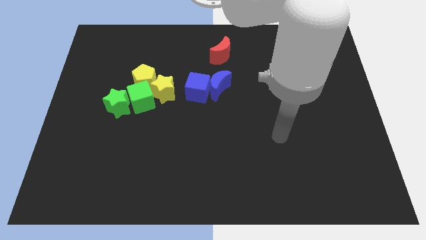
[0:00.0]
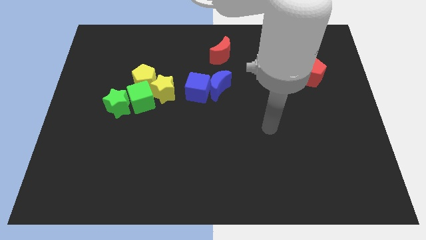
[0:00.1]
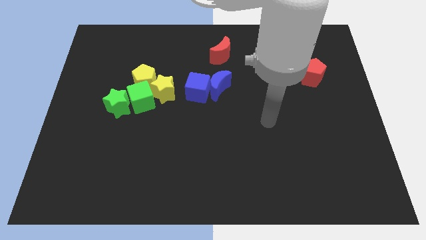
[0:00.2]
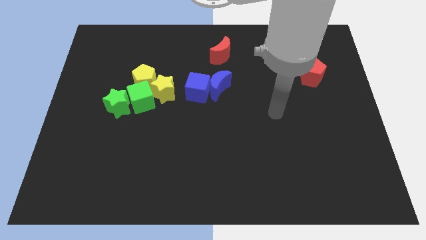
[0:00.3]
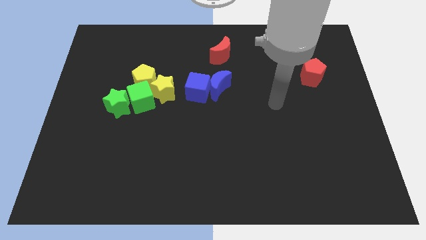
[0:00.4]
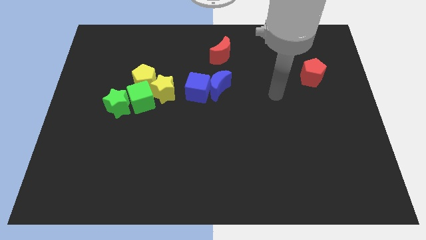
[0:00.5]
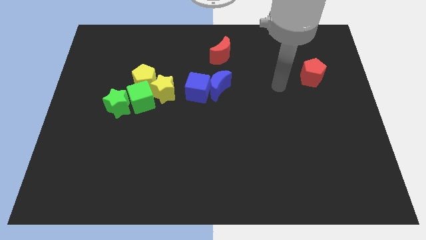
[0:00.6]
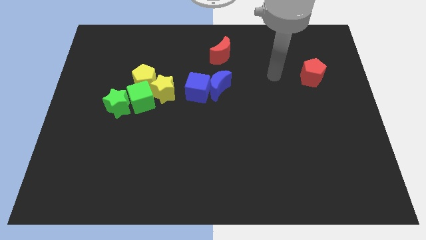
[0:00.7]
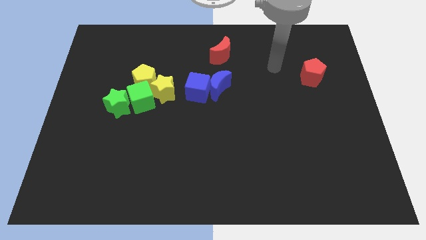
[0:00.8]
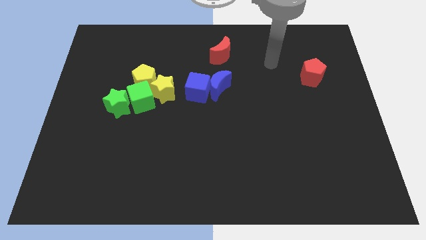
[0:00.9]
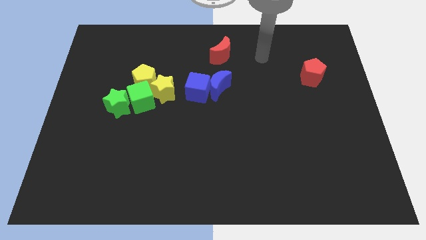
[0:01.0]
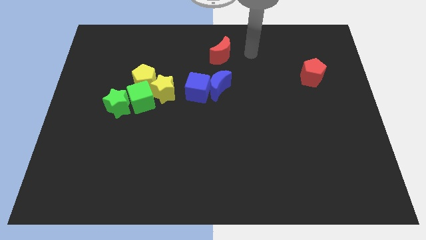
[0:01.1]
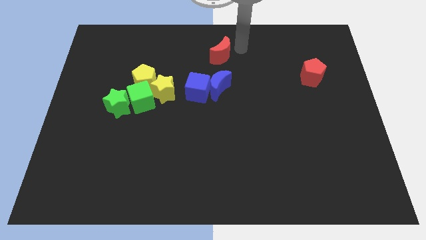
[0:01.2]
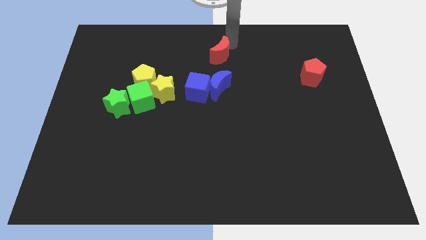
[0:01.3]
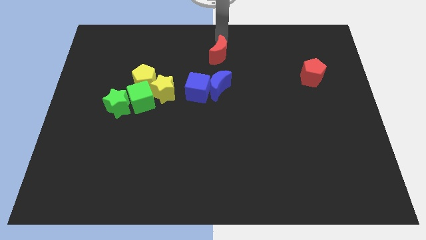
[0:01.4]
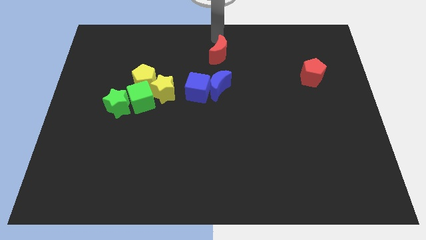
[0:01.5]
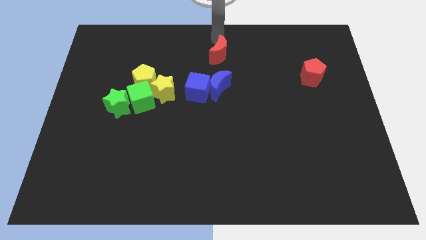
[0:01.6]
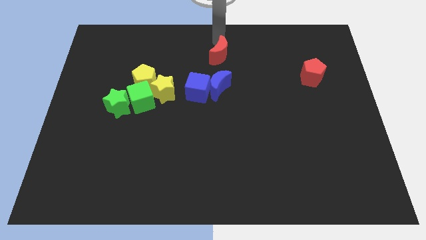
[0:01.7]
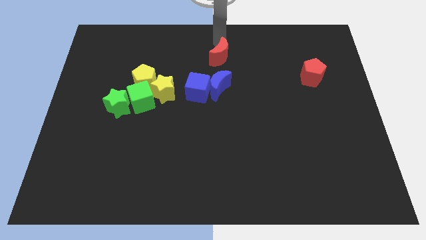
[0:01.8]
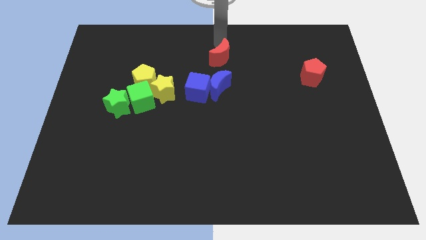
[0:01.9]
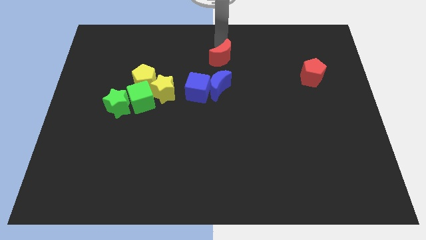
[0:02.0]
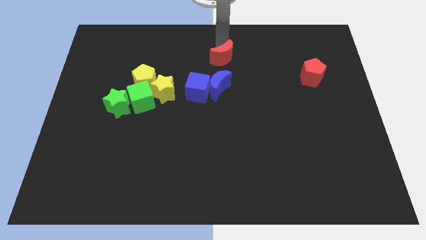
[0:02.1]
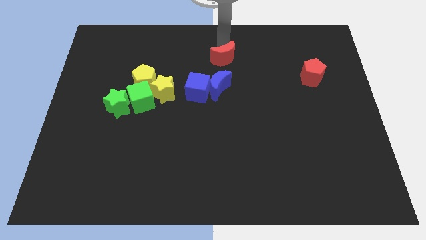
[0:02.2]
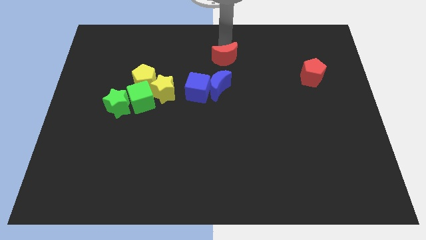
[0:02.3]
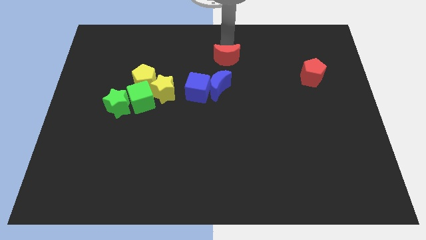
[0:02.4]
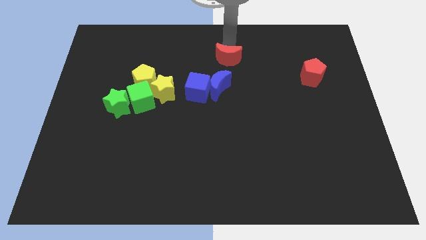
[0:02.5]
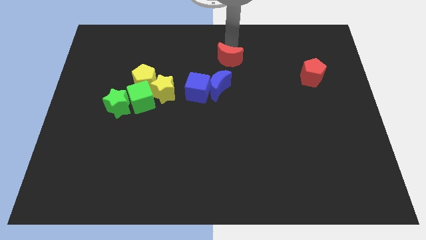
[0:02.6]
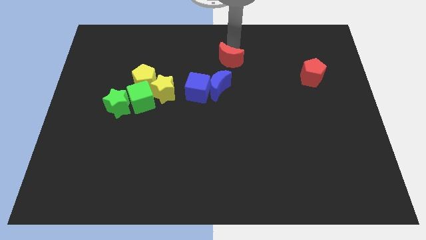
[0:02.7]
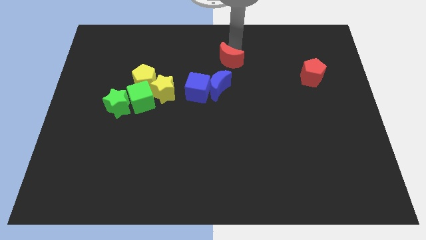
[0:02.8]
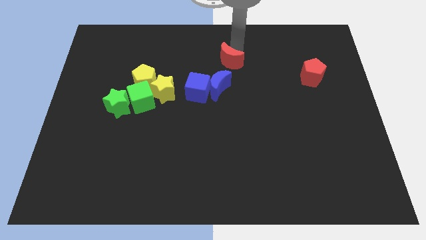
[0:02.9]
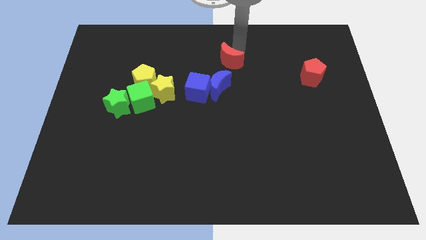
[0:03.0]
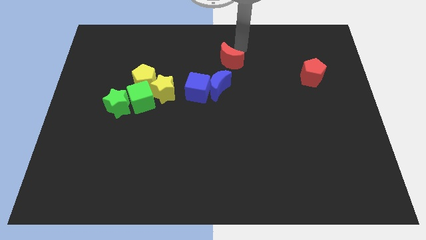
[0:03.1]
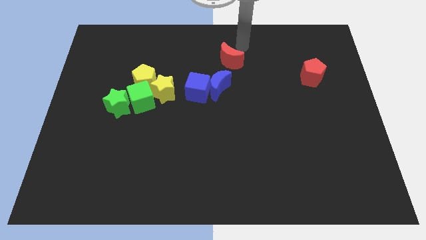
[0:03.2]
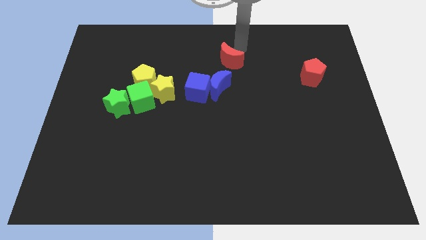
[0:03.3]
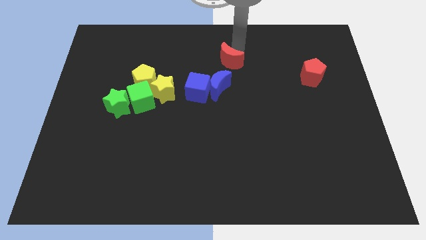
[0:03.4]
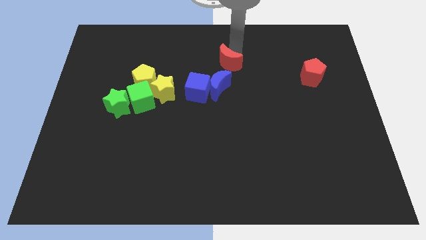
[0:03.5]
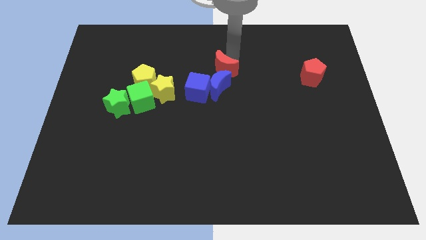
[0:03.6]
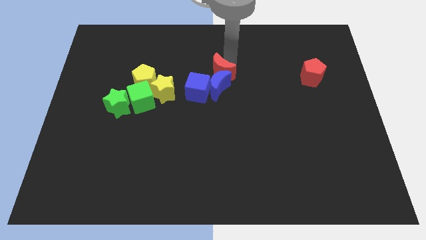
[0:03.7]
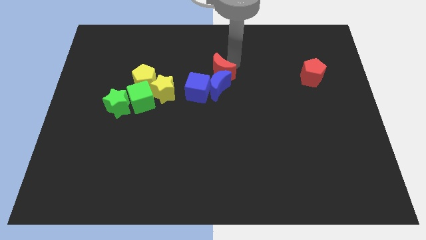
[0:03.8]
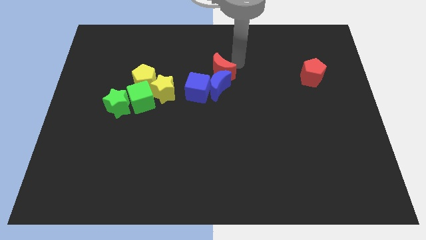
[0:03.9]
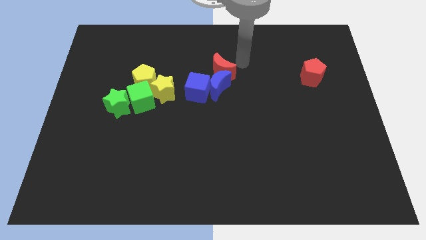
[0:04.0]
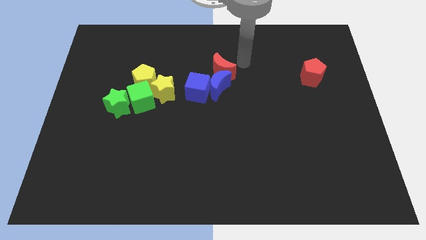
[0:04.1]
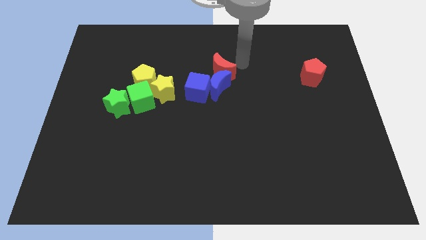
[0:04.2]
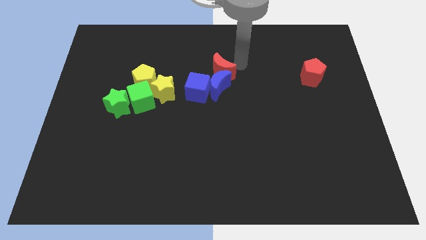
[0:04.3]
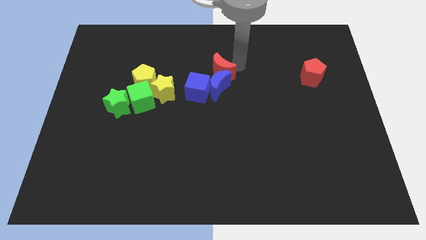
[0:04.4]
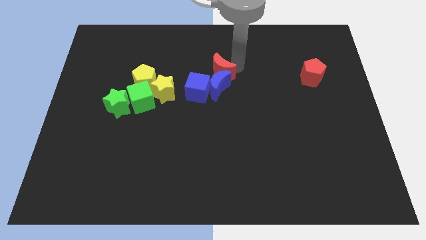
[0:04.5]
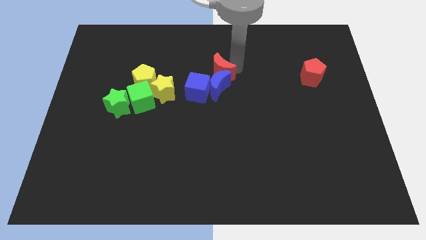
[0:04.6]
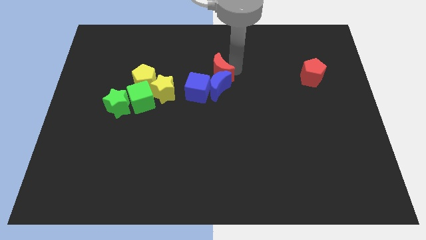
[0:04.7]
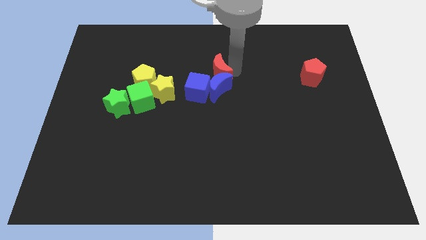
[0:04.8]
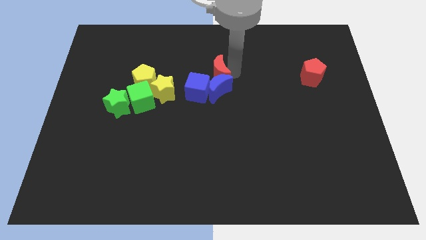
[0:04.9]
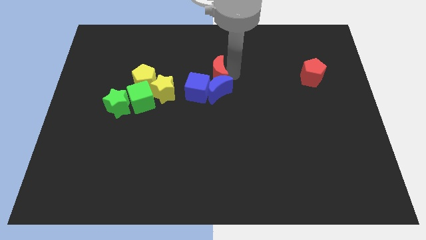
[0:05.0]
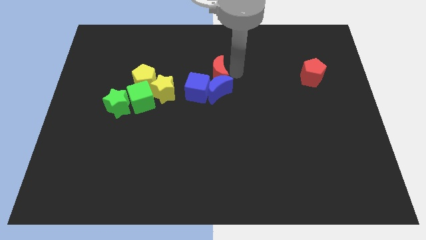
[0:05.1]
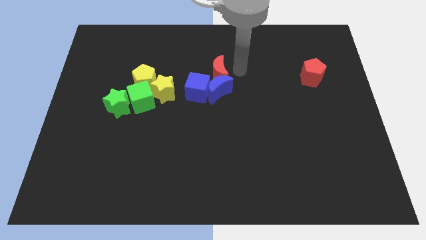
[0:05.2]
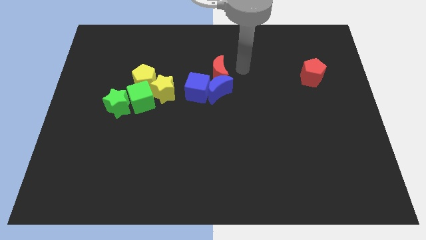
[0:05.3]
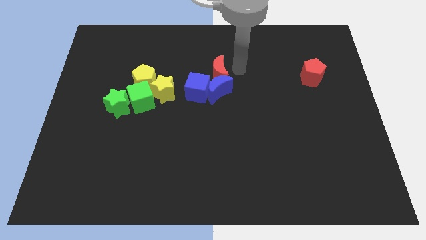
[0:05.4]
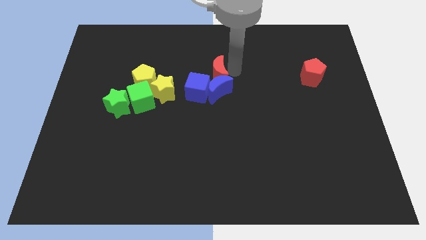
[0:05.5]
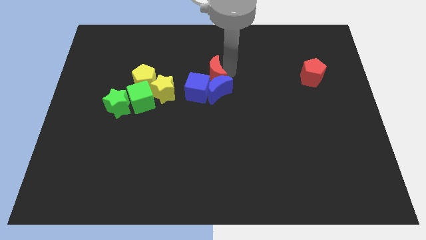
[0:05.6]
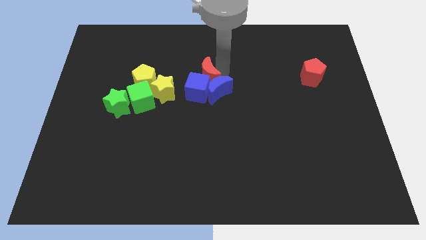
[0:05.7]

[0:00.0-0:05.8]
move the red moon next to the blue cube

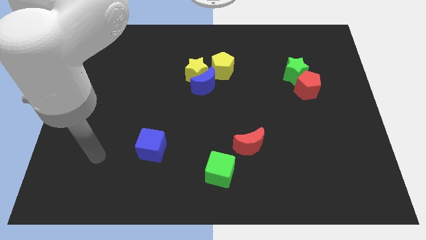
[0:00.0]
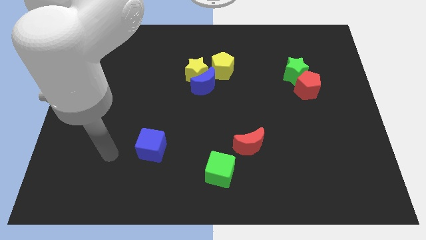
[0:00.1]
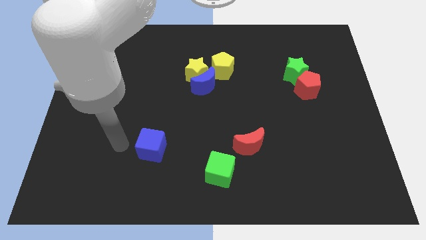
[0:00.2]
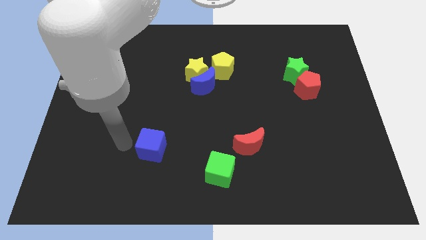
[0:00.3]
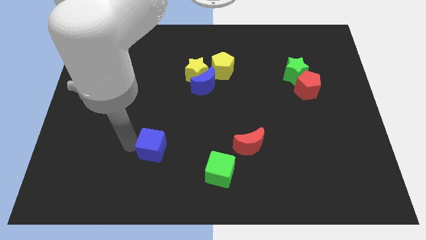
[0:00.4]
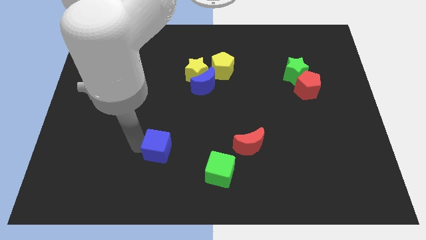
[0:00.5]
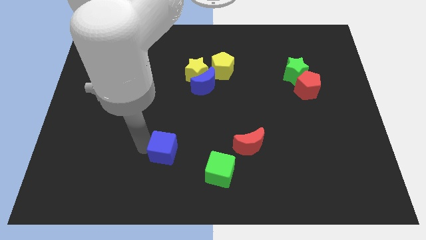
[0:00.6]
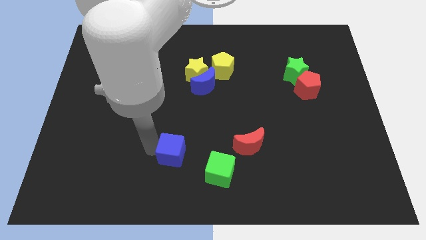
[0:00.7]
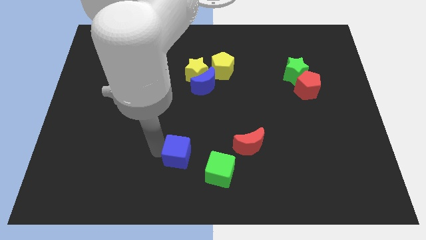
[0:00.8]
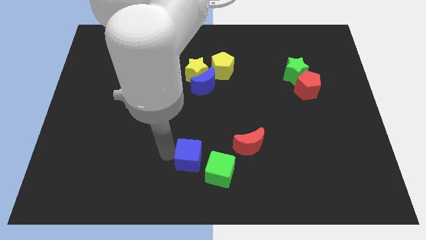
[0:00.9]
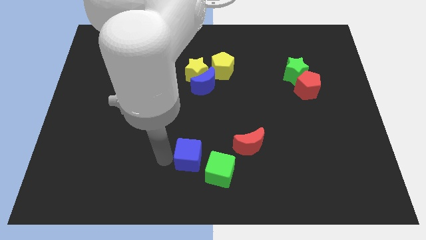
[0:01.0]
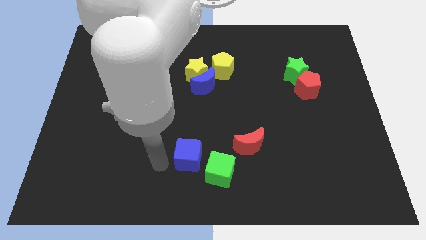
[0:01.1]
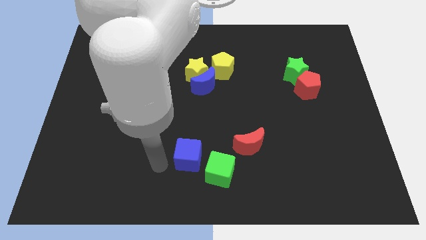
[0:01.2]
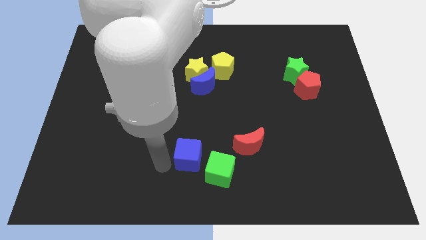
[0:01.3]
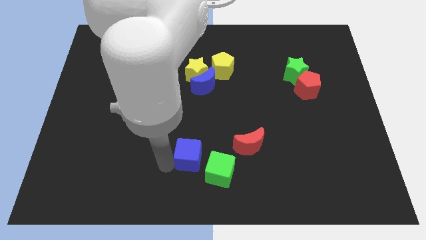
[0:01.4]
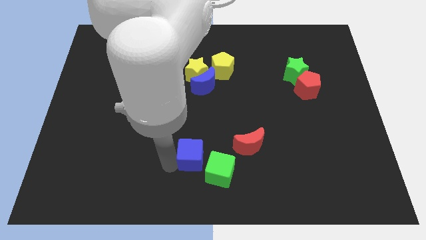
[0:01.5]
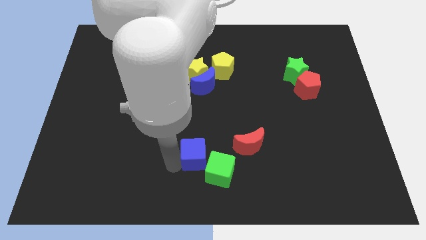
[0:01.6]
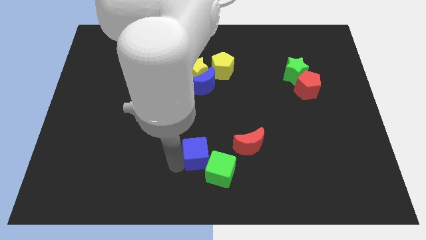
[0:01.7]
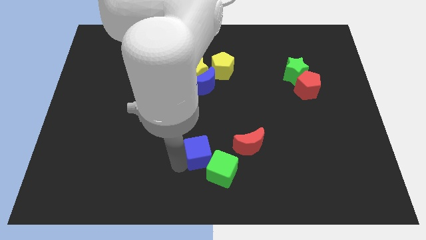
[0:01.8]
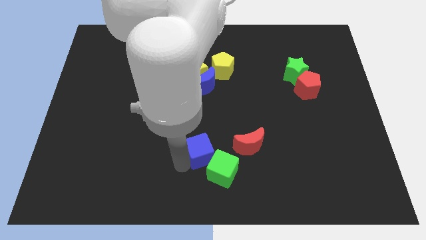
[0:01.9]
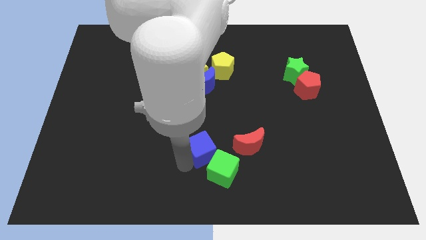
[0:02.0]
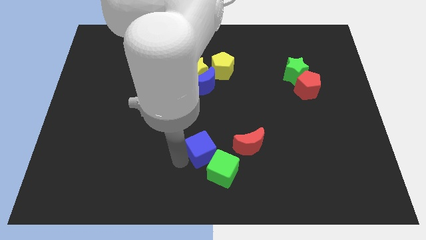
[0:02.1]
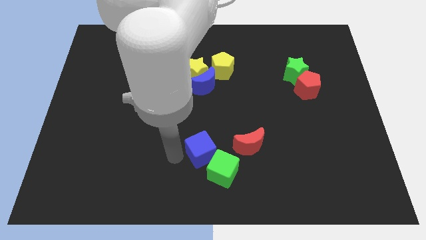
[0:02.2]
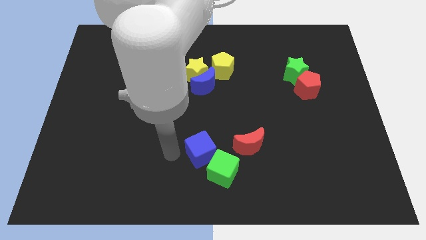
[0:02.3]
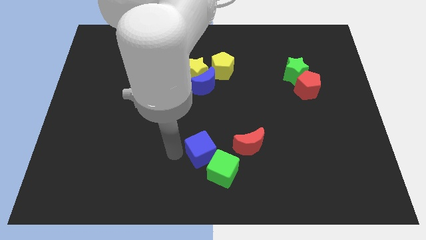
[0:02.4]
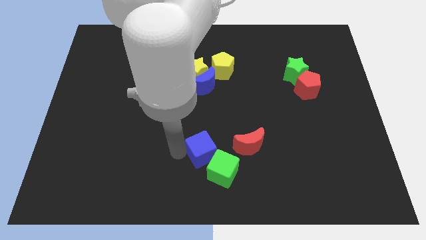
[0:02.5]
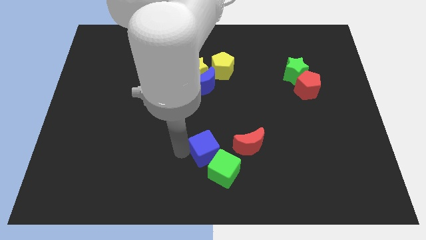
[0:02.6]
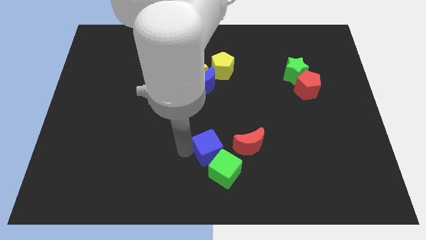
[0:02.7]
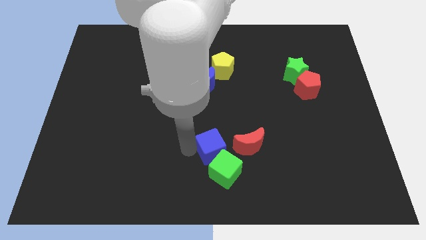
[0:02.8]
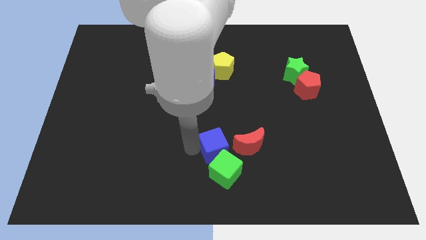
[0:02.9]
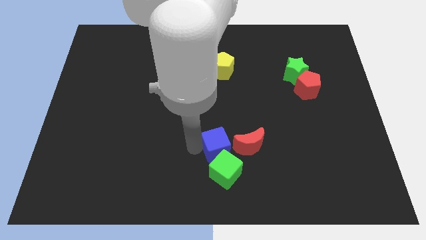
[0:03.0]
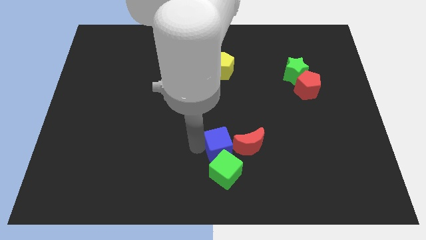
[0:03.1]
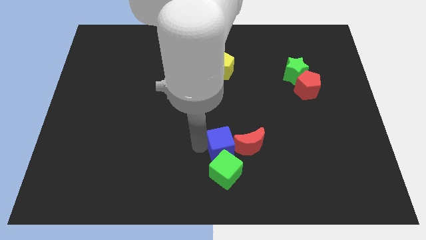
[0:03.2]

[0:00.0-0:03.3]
push the blue cube next to the red moon
